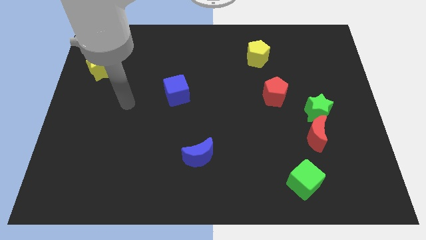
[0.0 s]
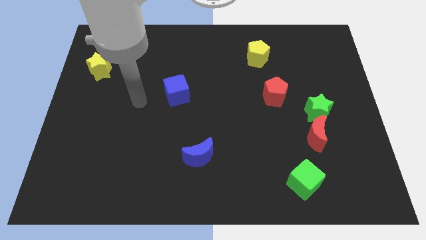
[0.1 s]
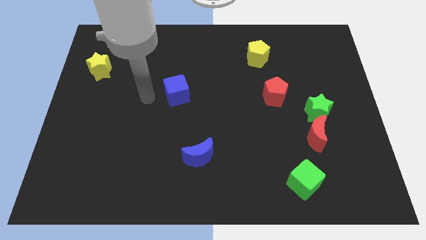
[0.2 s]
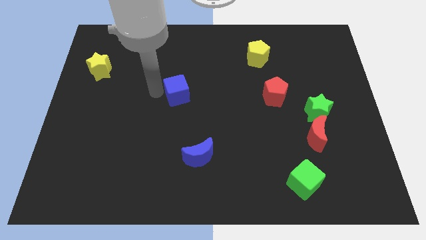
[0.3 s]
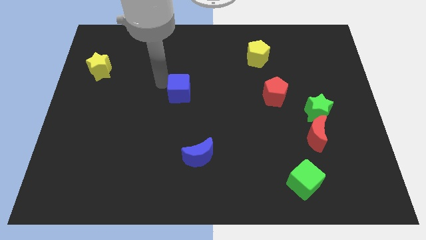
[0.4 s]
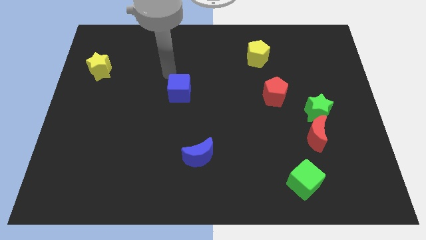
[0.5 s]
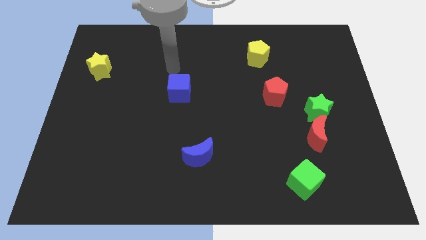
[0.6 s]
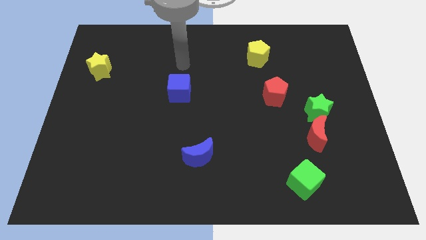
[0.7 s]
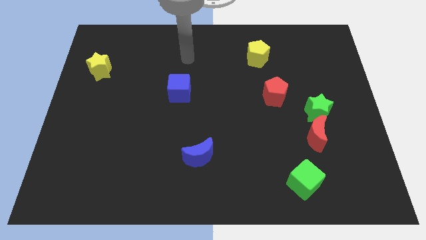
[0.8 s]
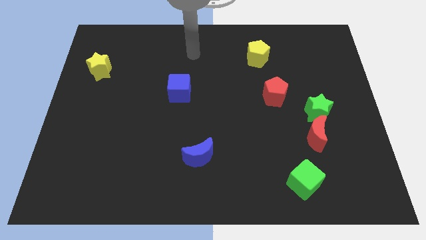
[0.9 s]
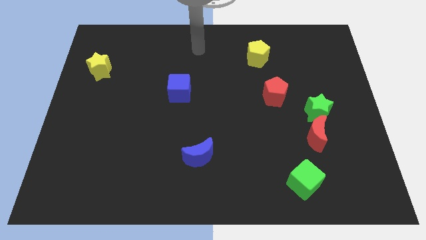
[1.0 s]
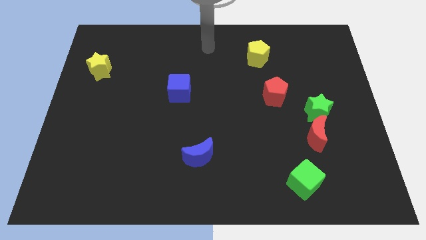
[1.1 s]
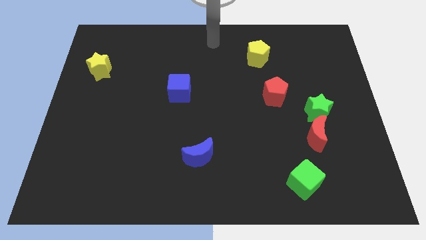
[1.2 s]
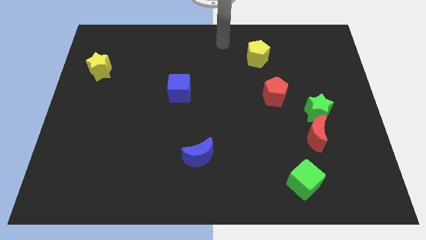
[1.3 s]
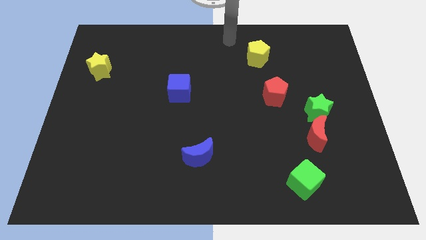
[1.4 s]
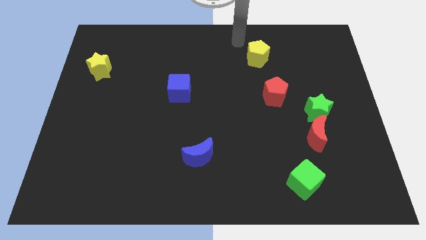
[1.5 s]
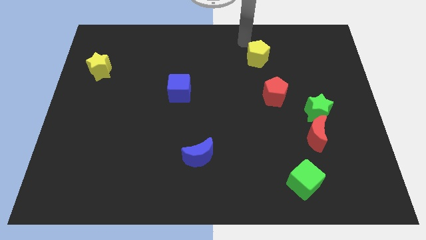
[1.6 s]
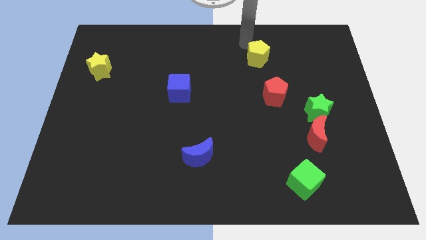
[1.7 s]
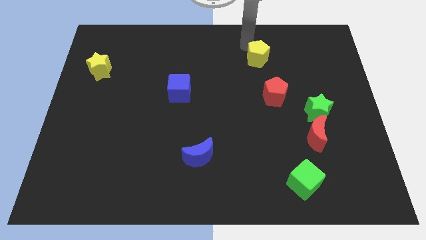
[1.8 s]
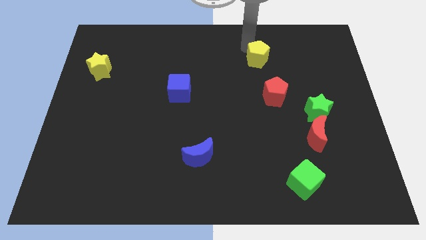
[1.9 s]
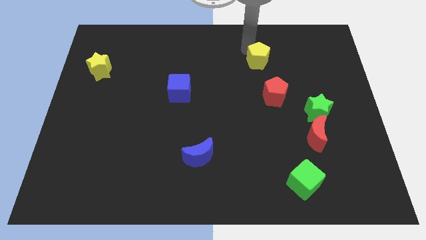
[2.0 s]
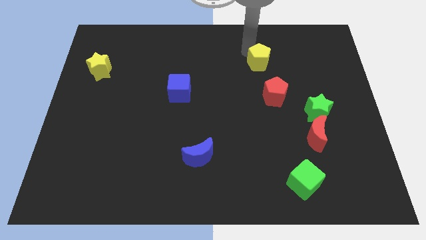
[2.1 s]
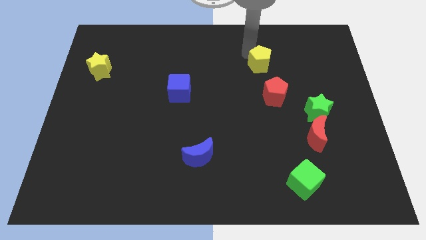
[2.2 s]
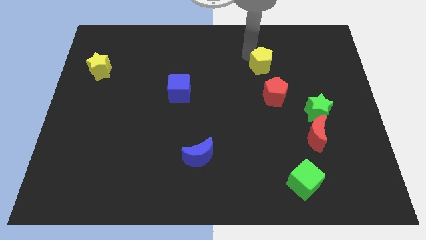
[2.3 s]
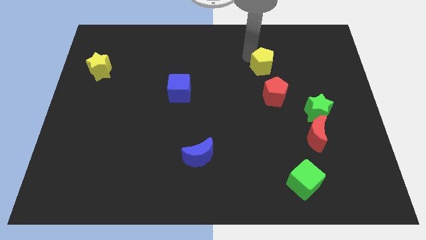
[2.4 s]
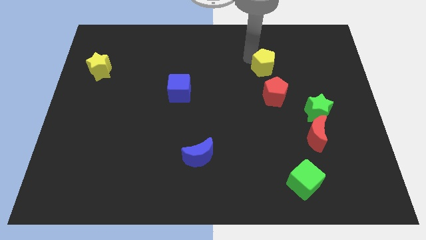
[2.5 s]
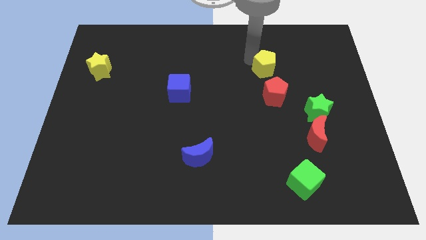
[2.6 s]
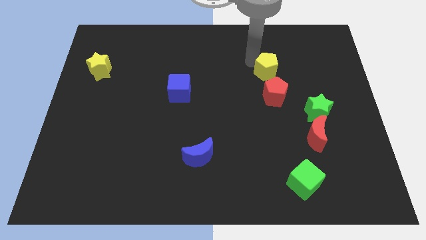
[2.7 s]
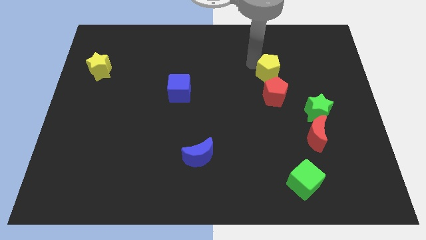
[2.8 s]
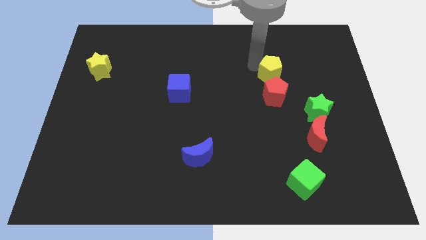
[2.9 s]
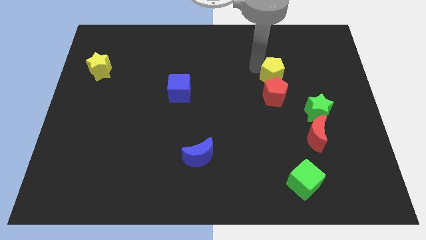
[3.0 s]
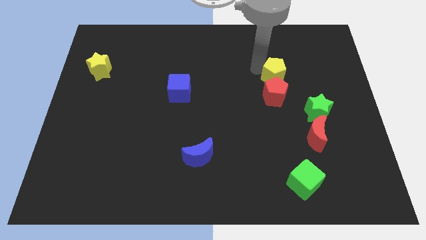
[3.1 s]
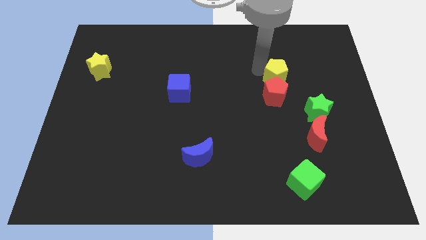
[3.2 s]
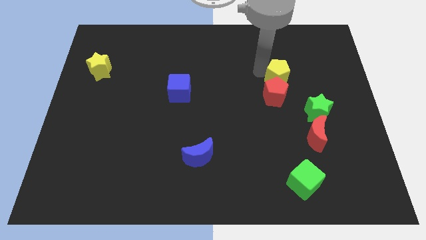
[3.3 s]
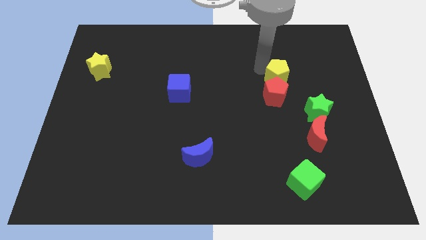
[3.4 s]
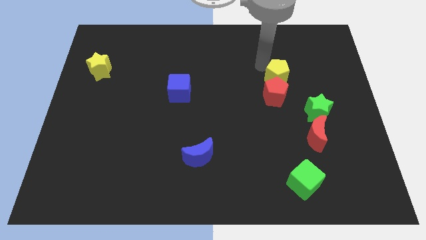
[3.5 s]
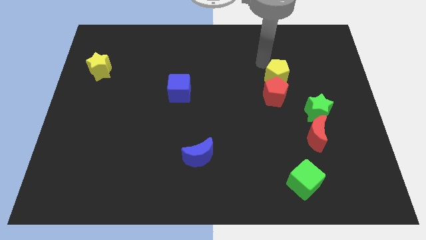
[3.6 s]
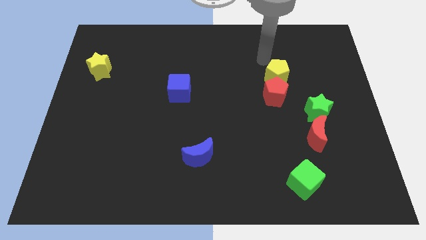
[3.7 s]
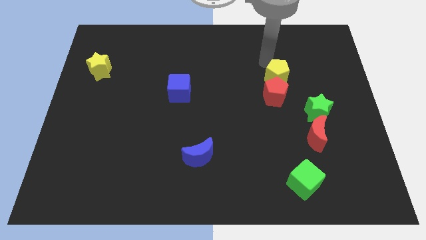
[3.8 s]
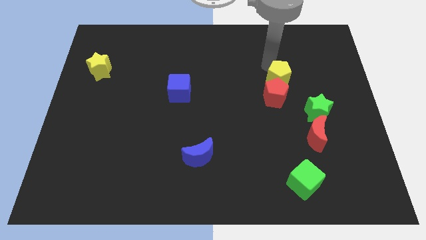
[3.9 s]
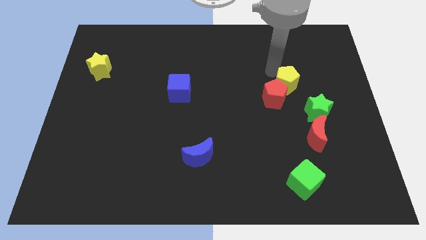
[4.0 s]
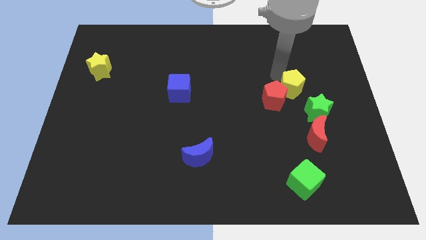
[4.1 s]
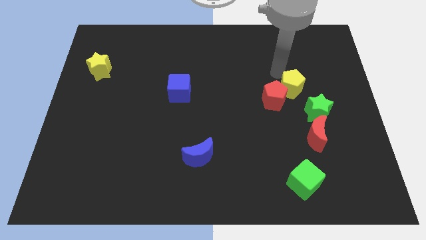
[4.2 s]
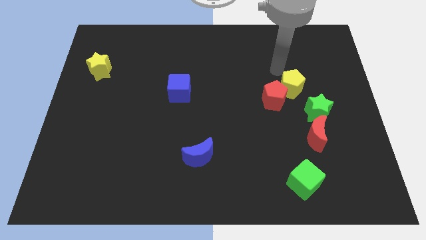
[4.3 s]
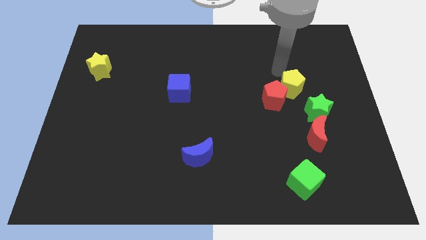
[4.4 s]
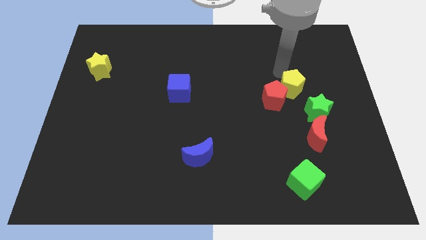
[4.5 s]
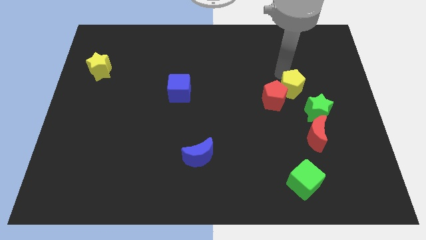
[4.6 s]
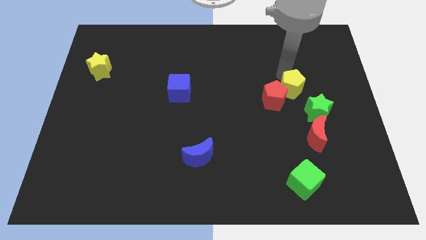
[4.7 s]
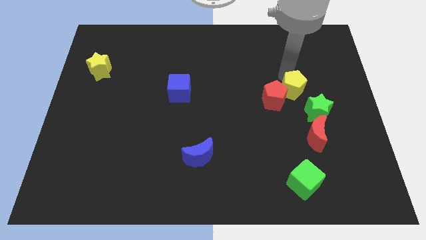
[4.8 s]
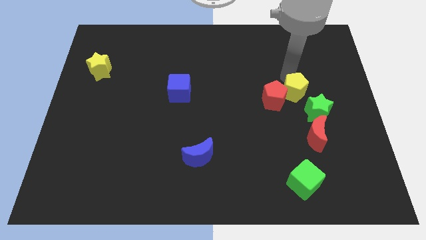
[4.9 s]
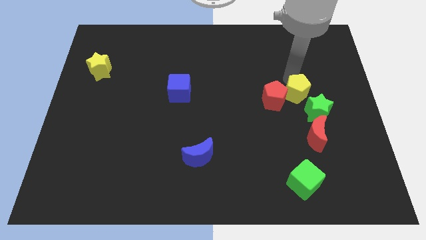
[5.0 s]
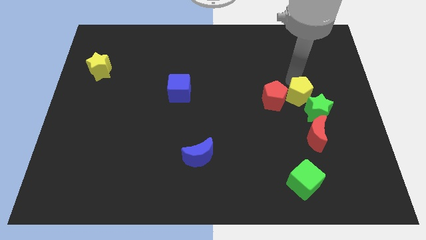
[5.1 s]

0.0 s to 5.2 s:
put the yellow pentagon next to the green star

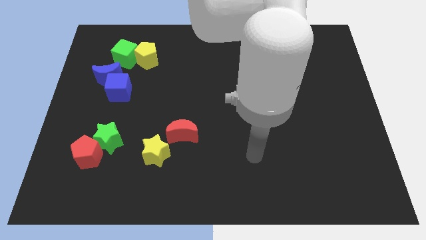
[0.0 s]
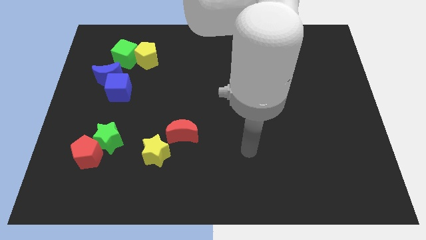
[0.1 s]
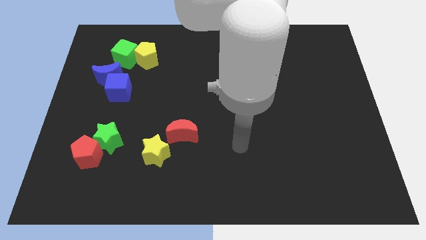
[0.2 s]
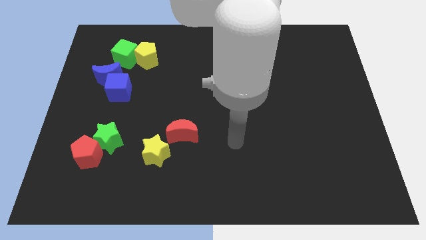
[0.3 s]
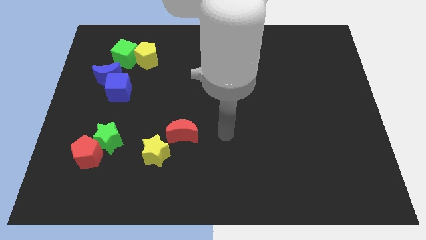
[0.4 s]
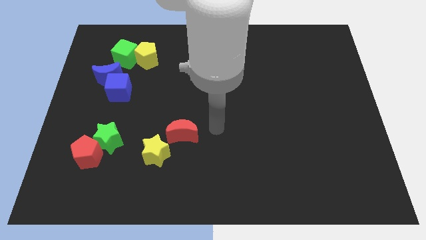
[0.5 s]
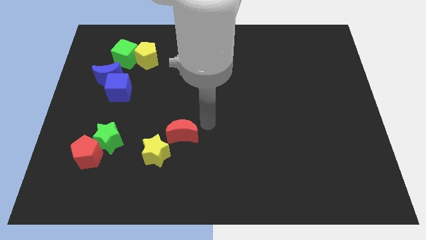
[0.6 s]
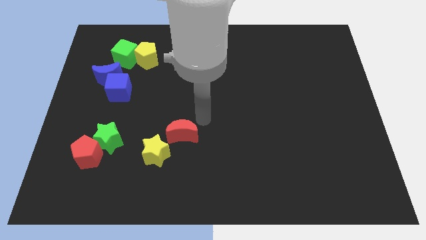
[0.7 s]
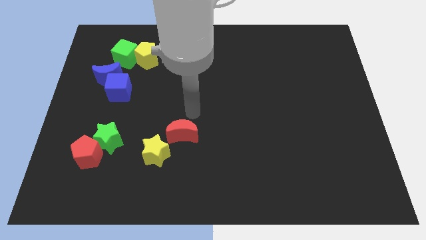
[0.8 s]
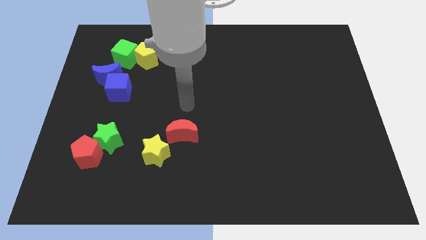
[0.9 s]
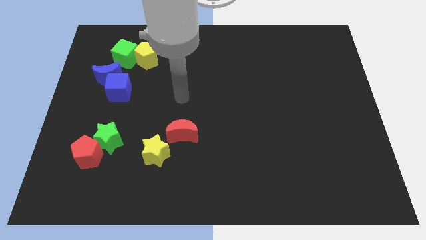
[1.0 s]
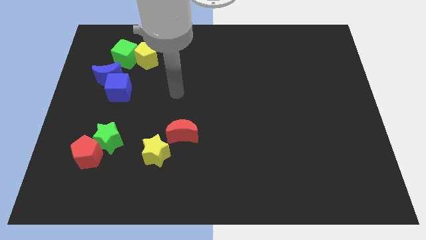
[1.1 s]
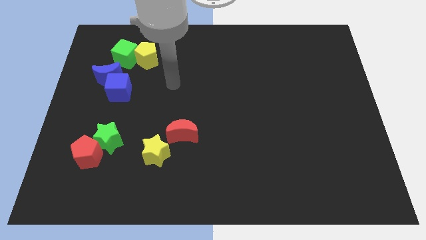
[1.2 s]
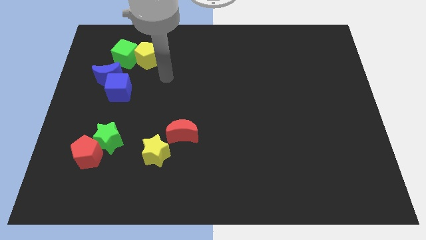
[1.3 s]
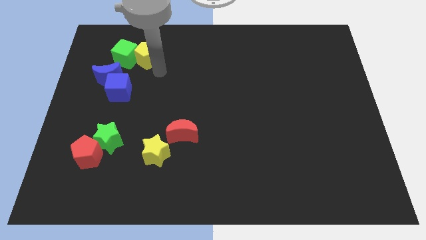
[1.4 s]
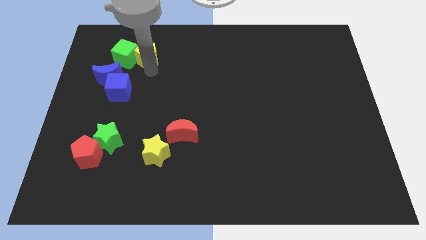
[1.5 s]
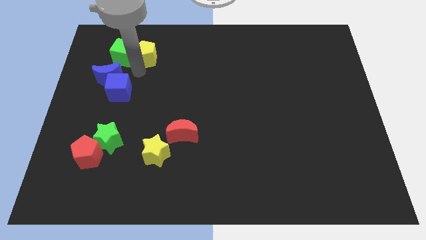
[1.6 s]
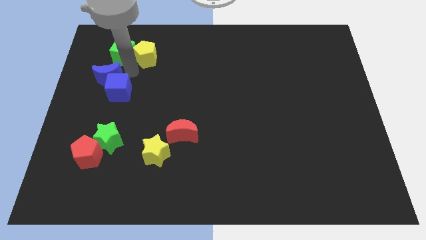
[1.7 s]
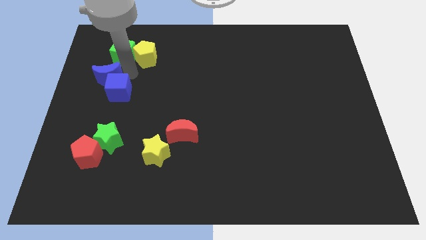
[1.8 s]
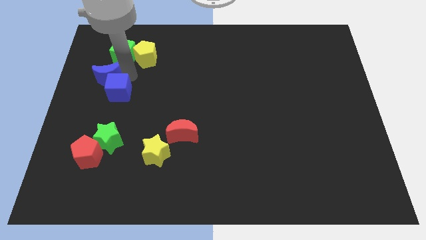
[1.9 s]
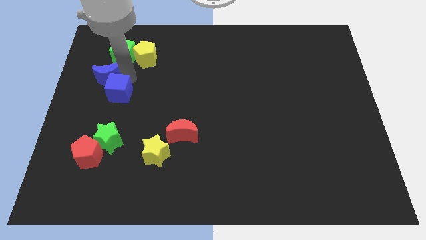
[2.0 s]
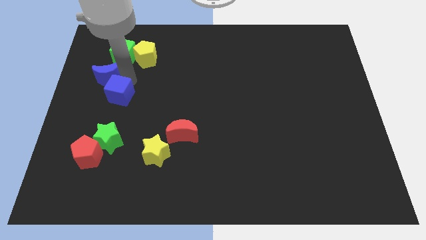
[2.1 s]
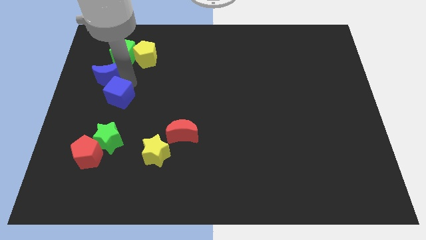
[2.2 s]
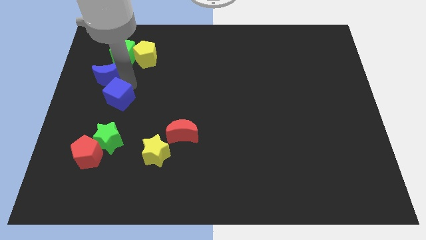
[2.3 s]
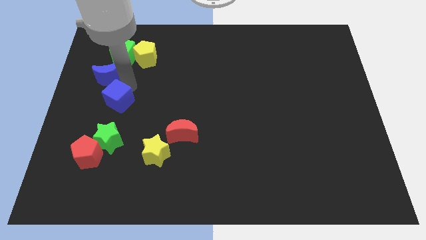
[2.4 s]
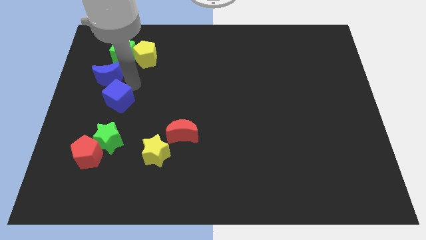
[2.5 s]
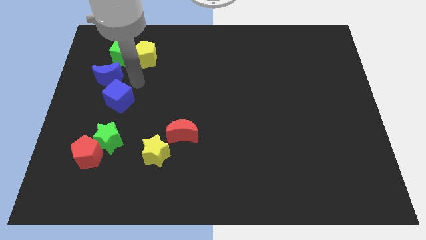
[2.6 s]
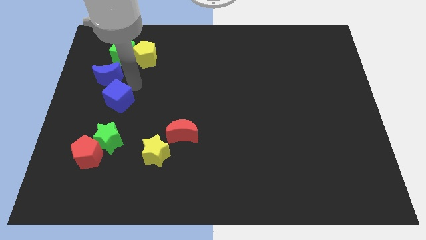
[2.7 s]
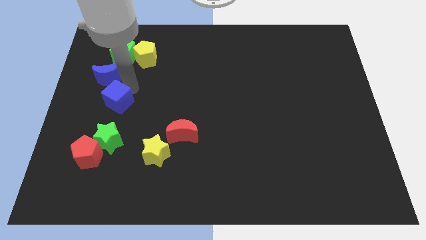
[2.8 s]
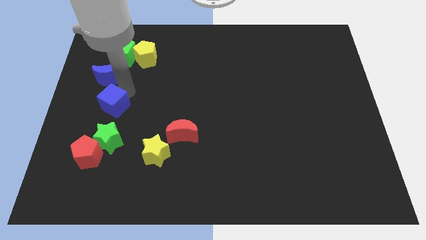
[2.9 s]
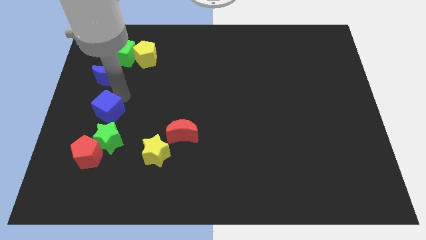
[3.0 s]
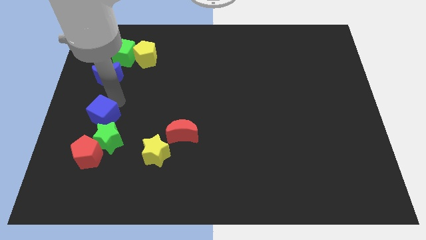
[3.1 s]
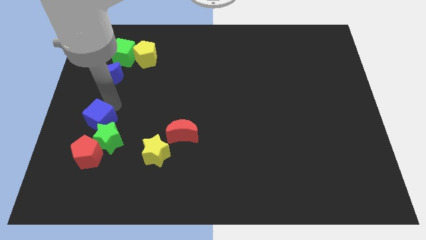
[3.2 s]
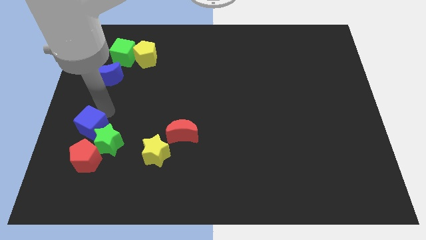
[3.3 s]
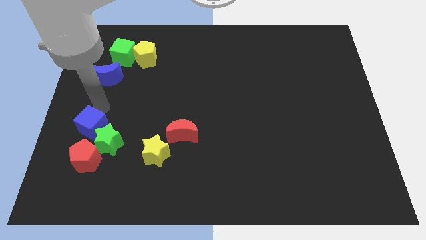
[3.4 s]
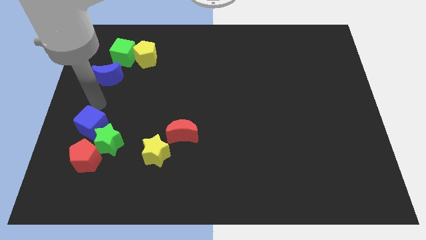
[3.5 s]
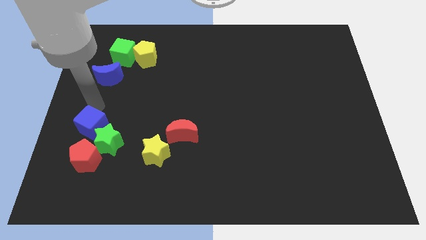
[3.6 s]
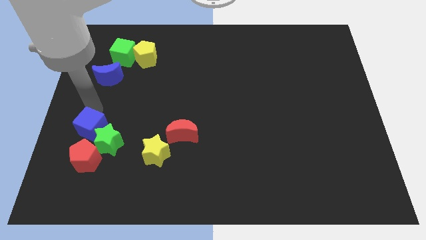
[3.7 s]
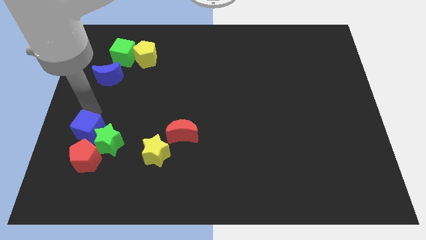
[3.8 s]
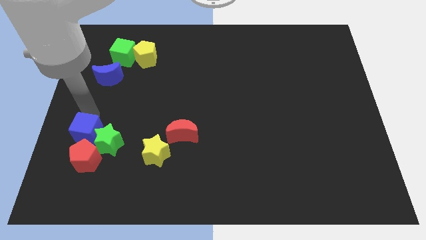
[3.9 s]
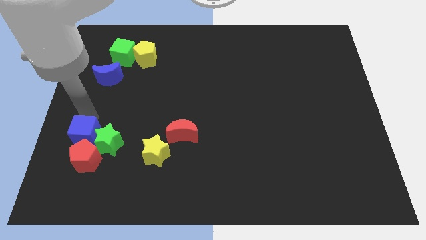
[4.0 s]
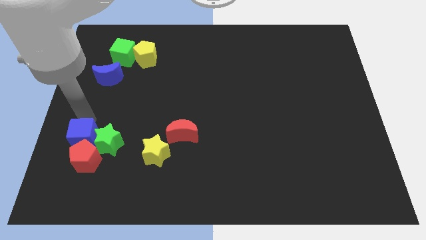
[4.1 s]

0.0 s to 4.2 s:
push the blue cube next to the red pentagon
